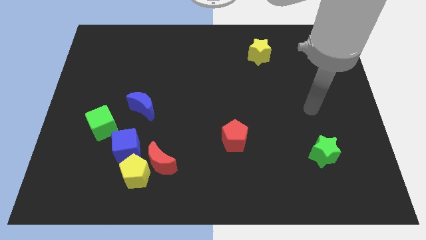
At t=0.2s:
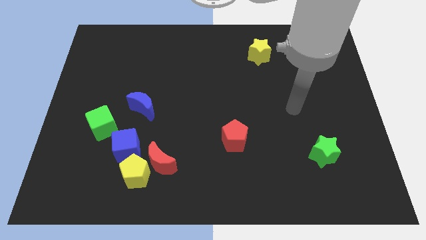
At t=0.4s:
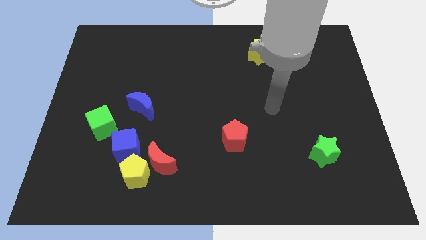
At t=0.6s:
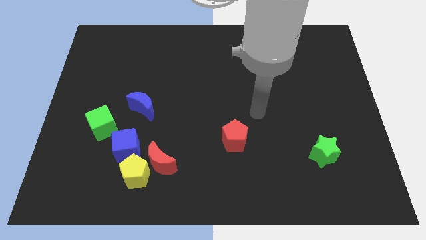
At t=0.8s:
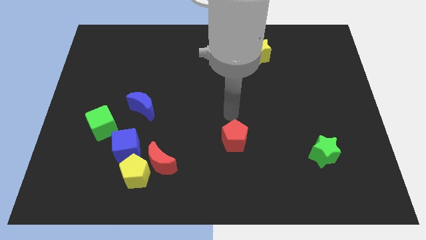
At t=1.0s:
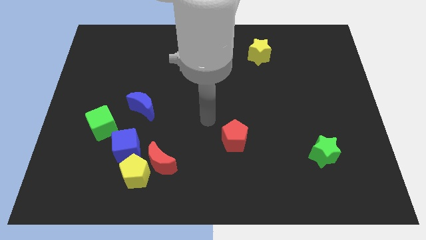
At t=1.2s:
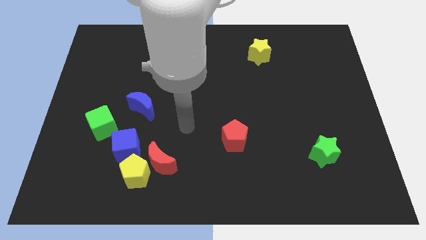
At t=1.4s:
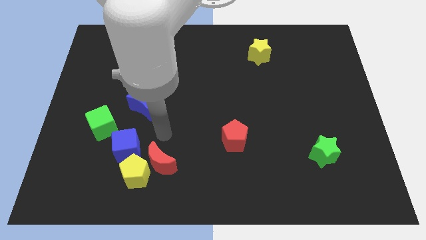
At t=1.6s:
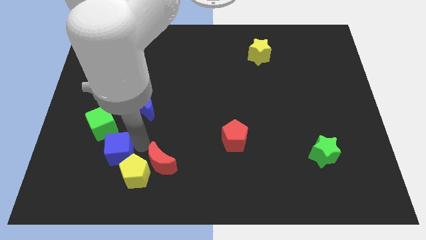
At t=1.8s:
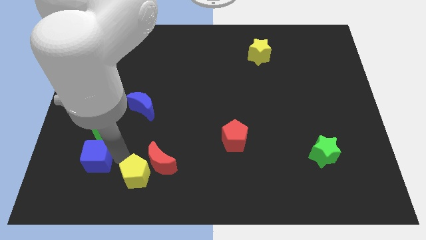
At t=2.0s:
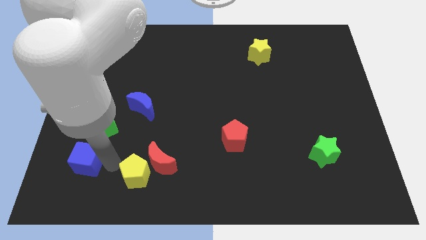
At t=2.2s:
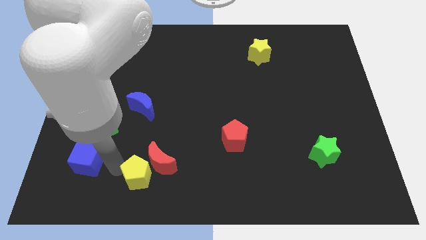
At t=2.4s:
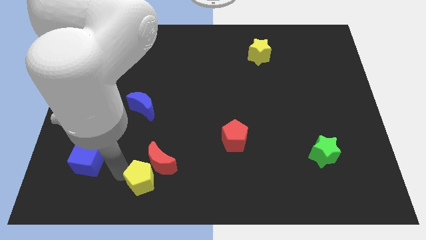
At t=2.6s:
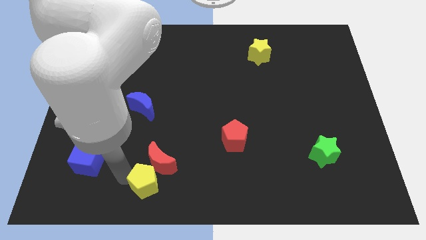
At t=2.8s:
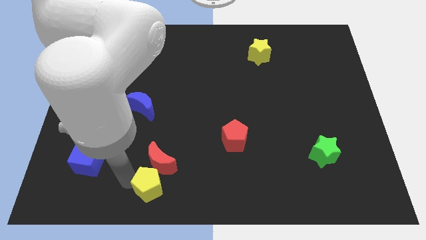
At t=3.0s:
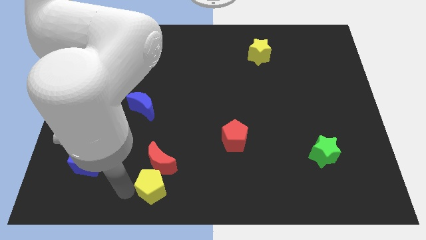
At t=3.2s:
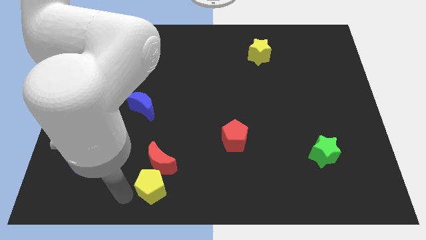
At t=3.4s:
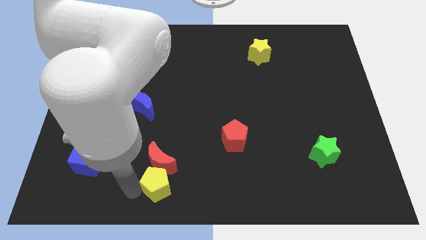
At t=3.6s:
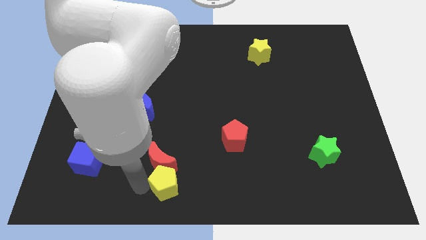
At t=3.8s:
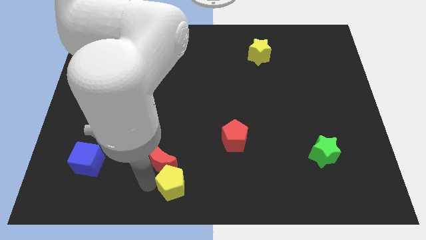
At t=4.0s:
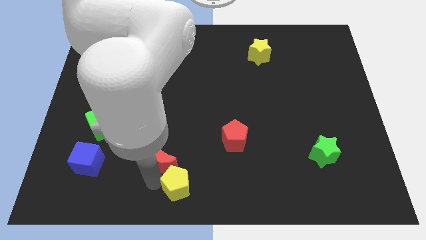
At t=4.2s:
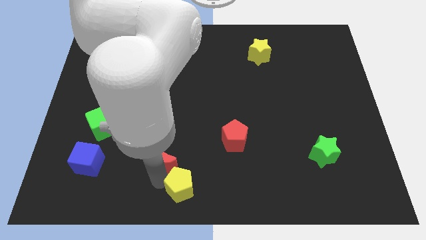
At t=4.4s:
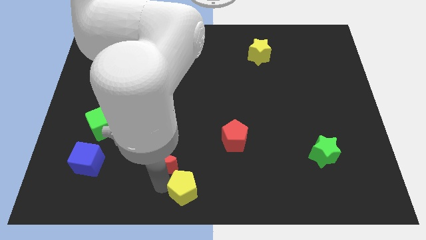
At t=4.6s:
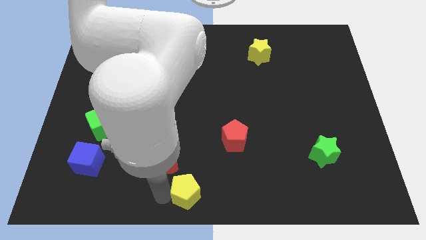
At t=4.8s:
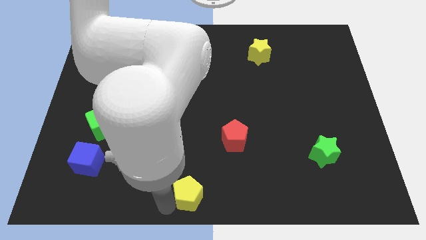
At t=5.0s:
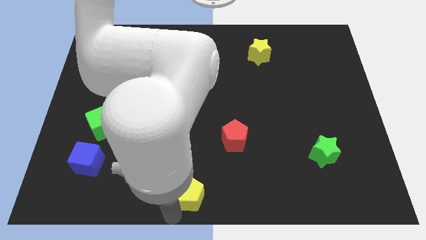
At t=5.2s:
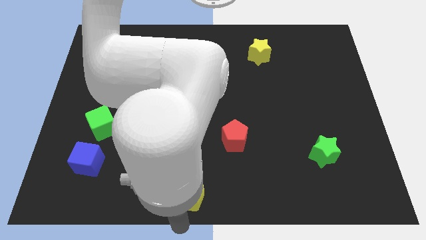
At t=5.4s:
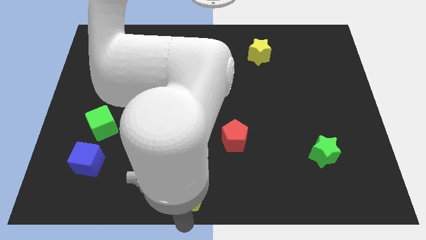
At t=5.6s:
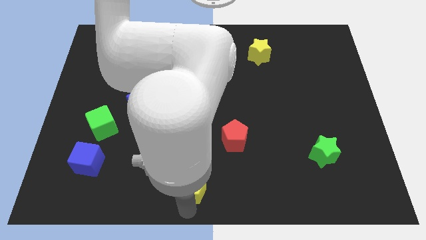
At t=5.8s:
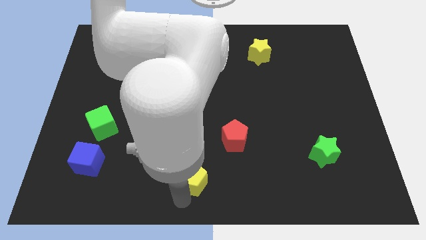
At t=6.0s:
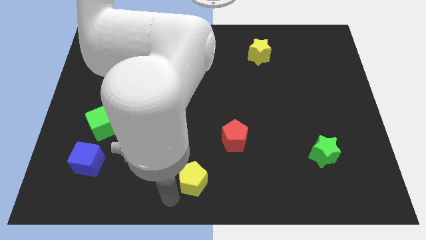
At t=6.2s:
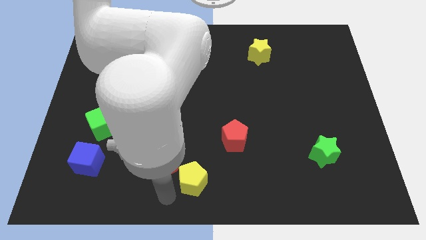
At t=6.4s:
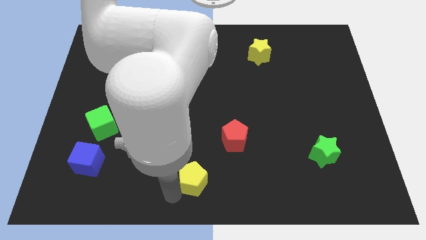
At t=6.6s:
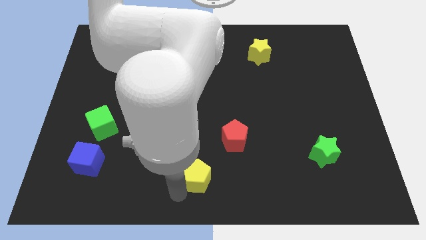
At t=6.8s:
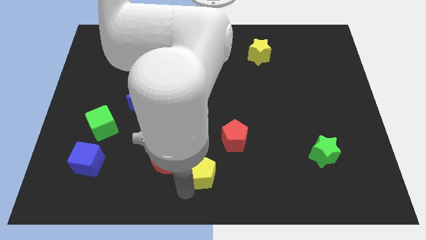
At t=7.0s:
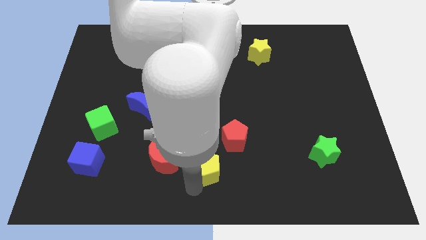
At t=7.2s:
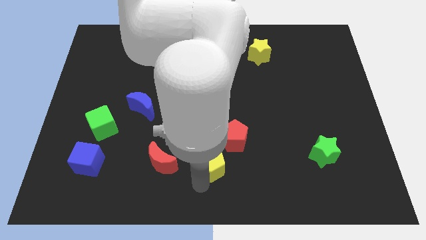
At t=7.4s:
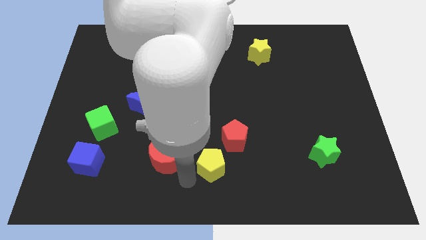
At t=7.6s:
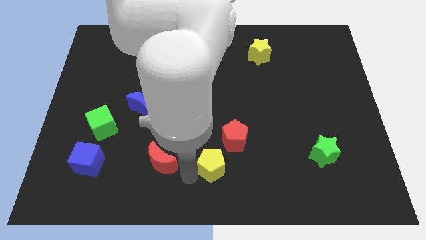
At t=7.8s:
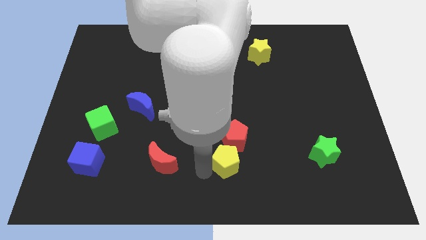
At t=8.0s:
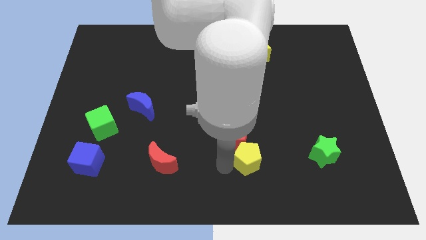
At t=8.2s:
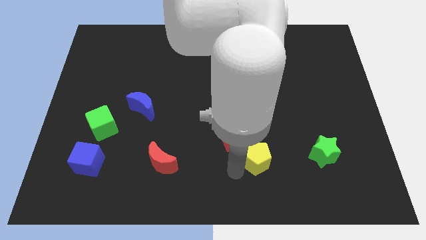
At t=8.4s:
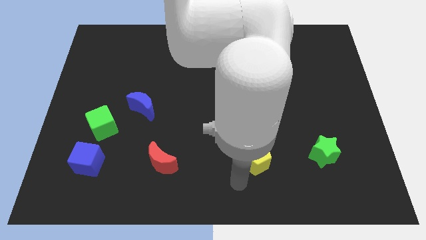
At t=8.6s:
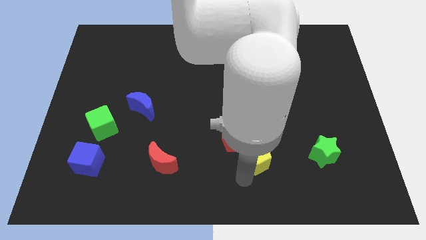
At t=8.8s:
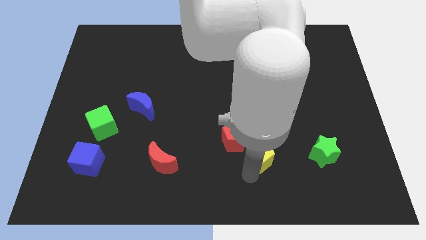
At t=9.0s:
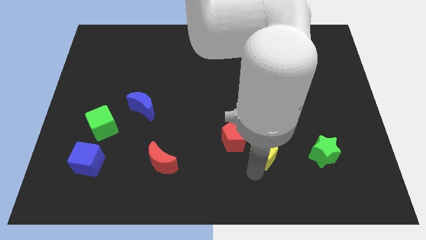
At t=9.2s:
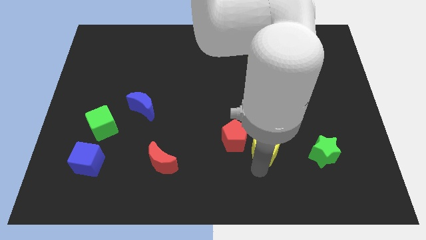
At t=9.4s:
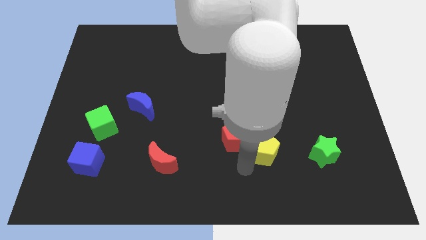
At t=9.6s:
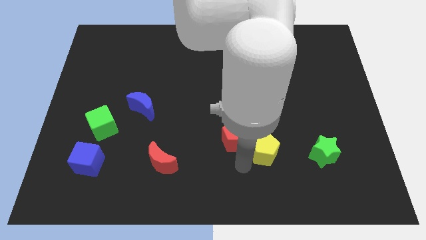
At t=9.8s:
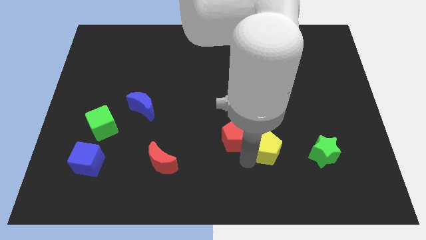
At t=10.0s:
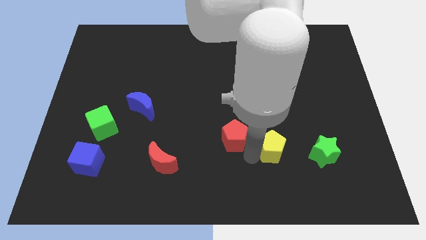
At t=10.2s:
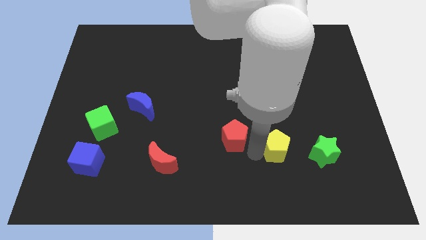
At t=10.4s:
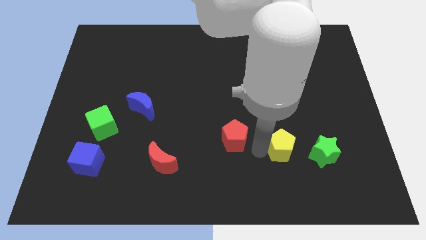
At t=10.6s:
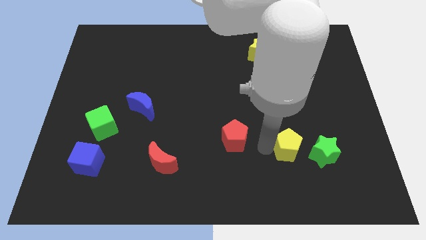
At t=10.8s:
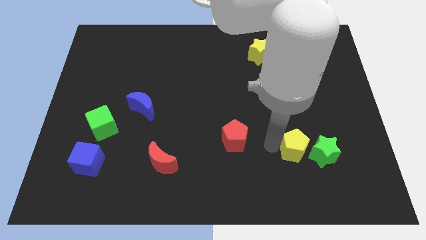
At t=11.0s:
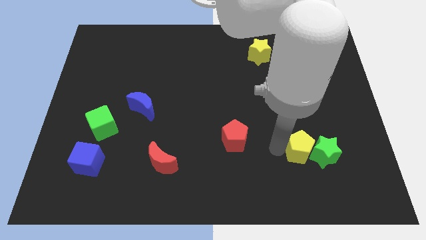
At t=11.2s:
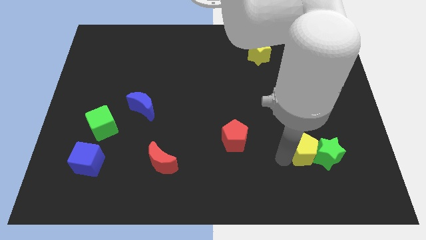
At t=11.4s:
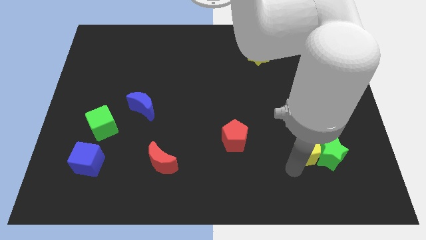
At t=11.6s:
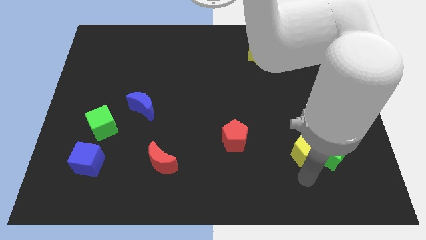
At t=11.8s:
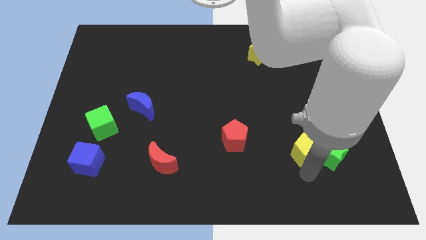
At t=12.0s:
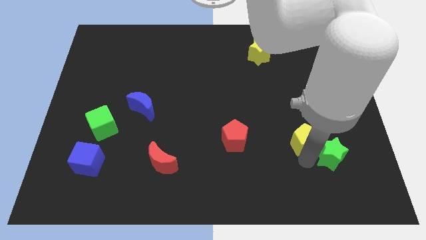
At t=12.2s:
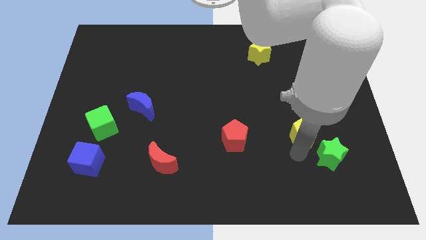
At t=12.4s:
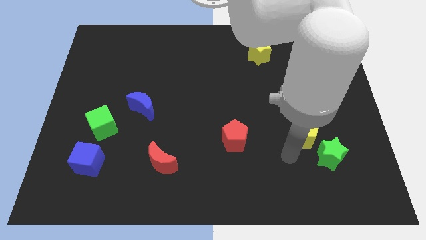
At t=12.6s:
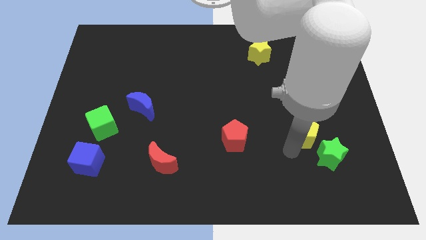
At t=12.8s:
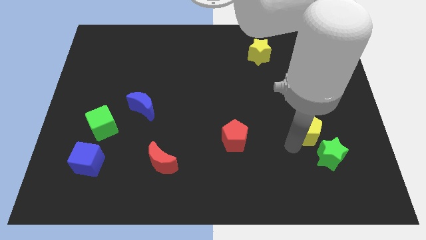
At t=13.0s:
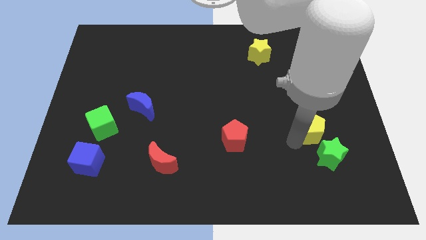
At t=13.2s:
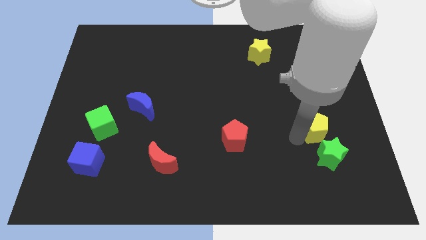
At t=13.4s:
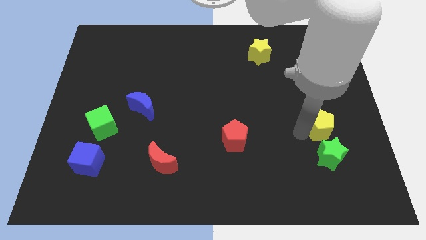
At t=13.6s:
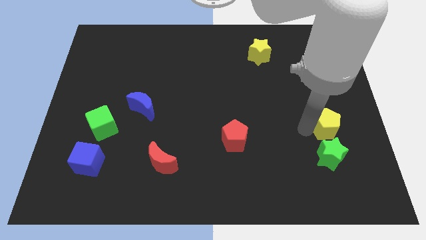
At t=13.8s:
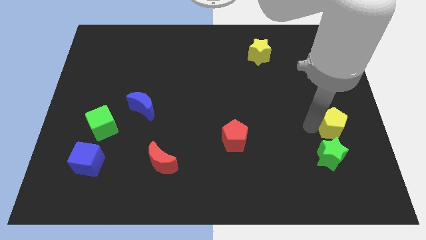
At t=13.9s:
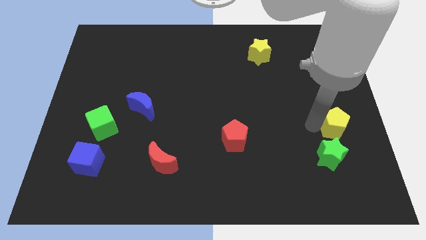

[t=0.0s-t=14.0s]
slide the yellow pentagon to the right side of the board
